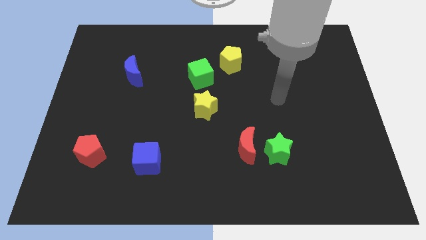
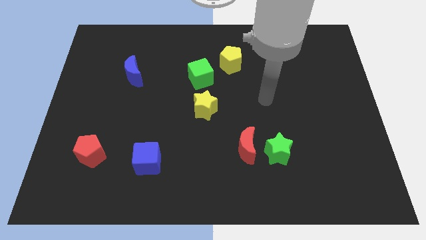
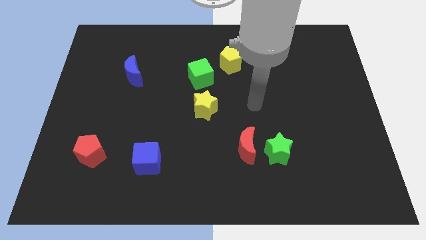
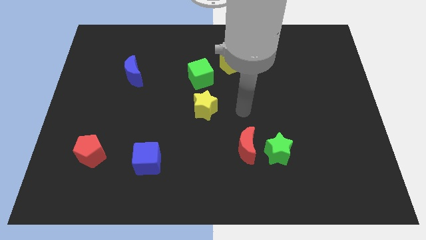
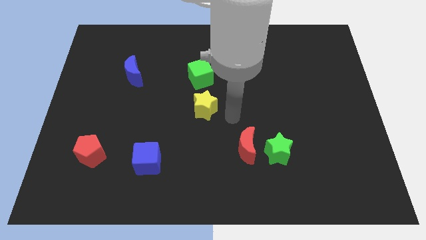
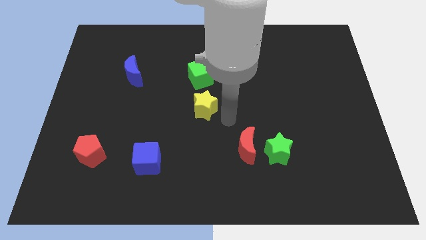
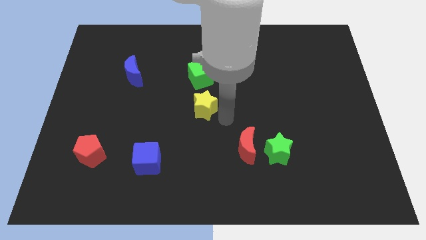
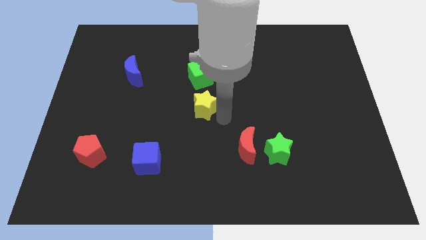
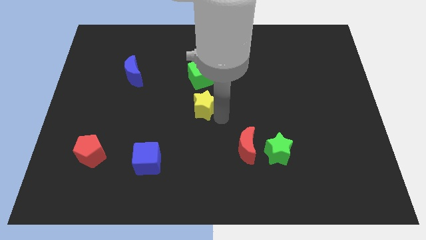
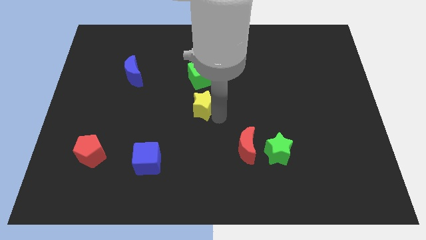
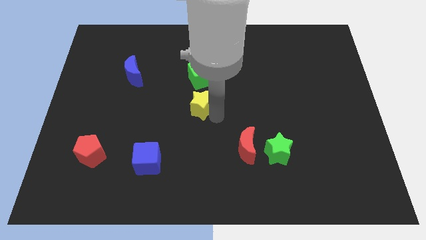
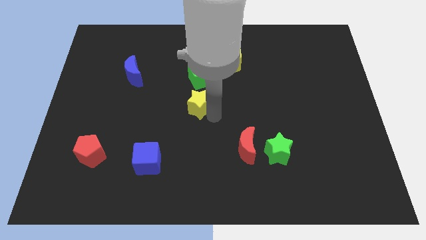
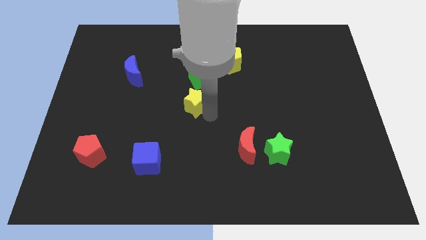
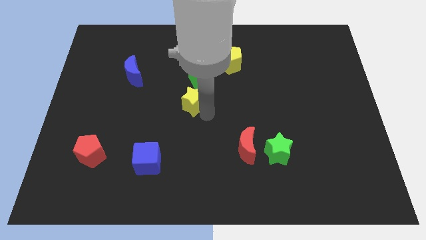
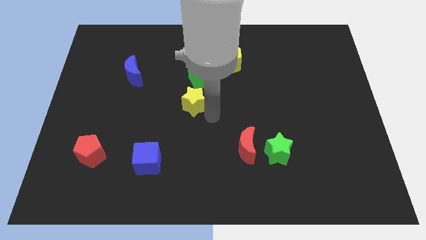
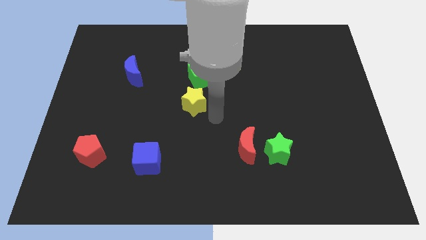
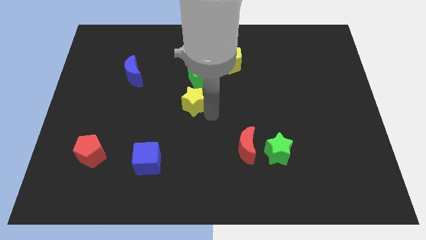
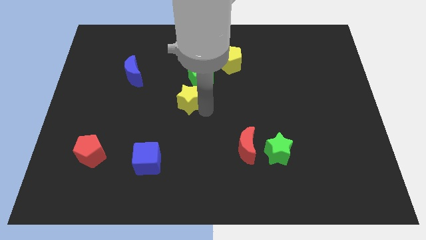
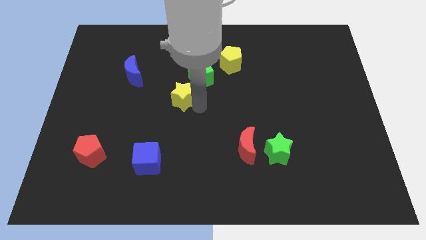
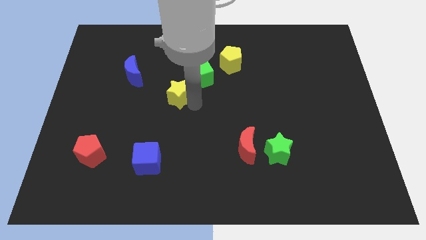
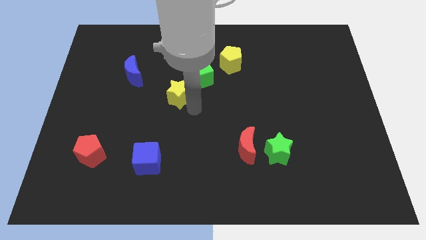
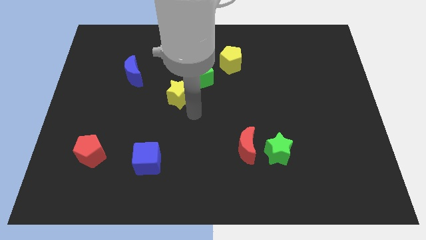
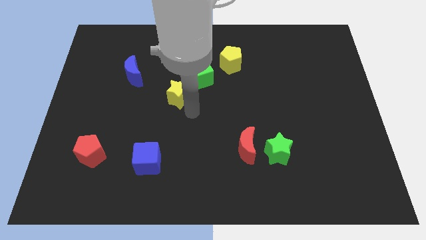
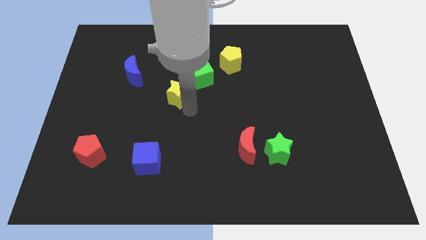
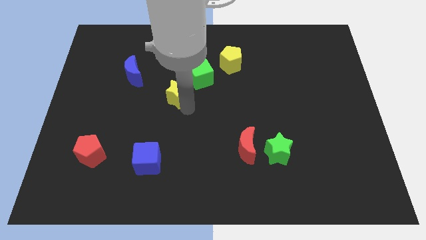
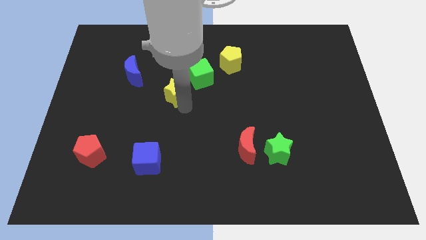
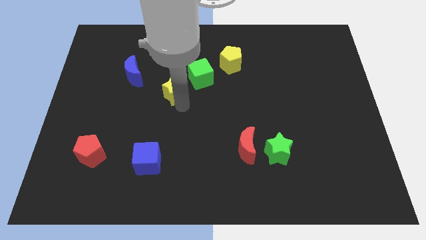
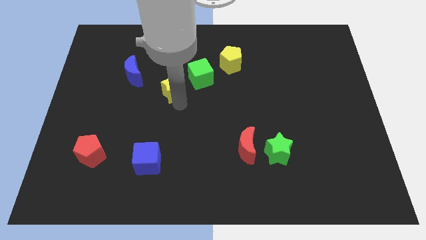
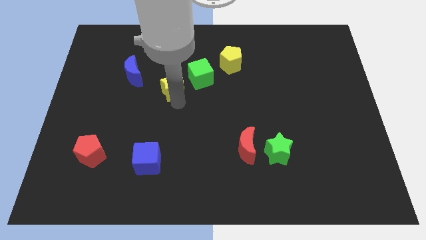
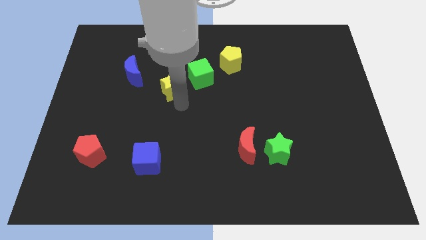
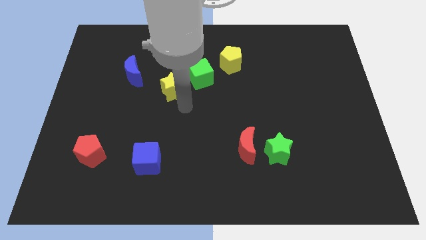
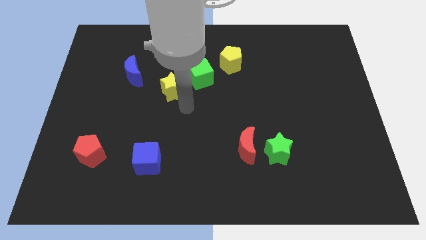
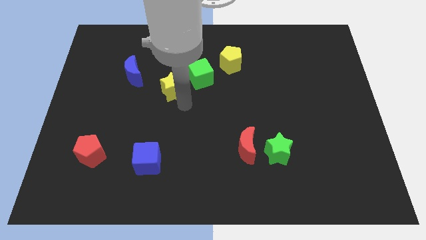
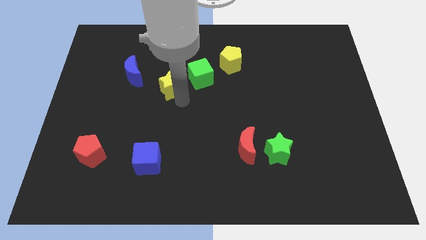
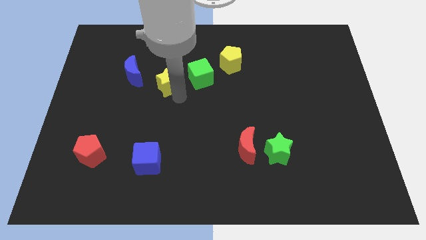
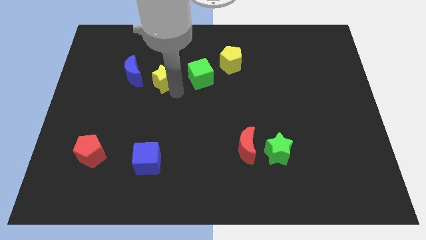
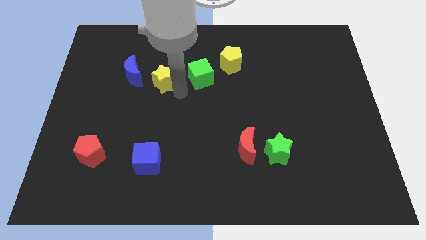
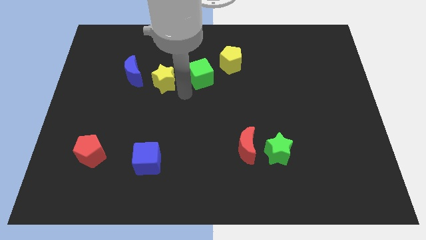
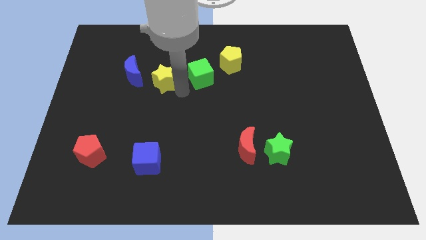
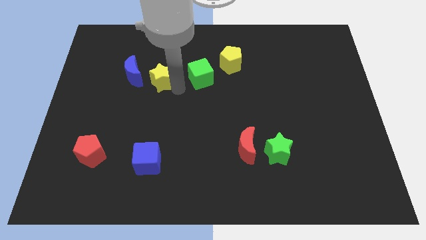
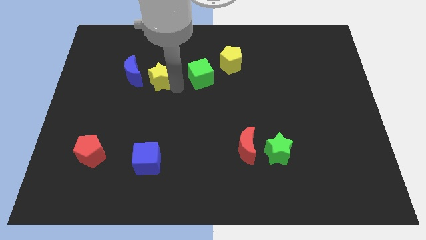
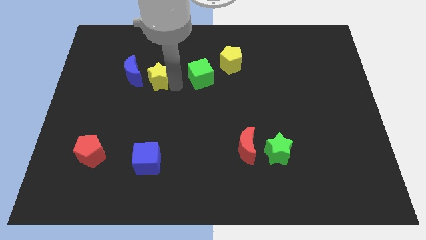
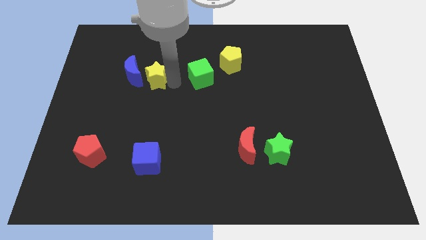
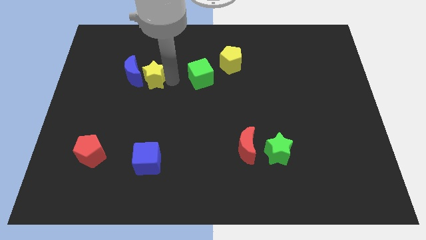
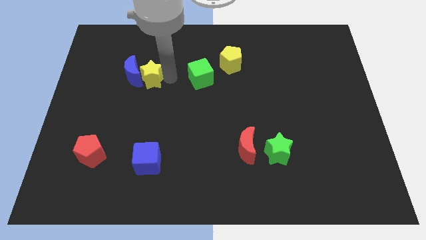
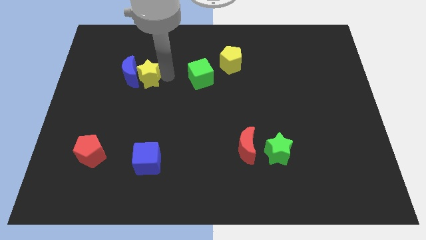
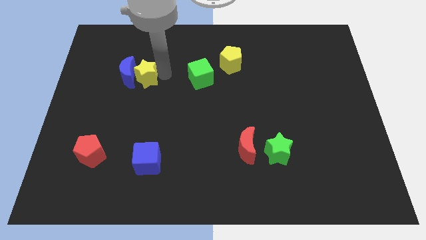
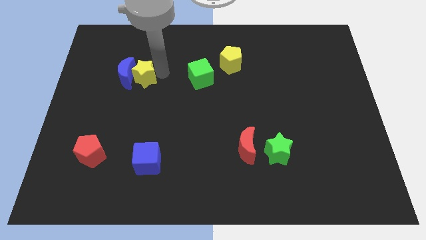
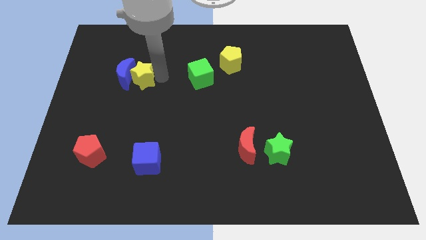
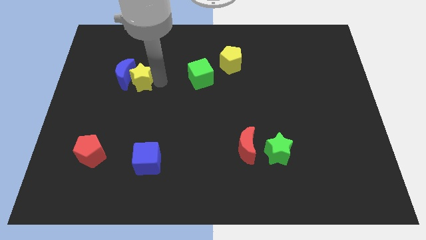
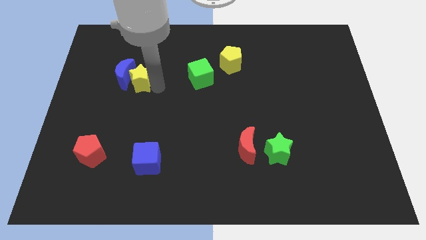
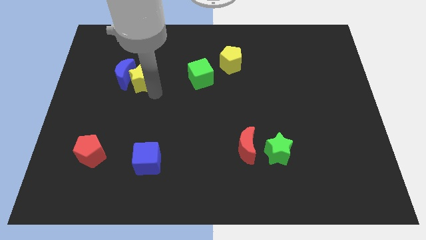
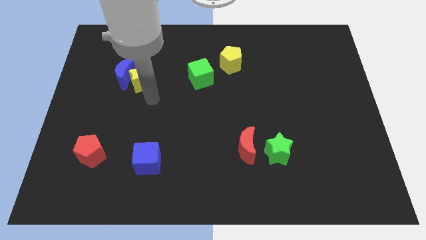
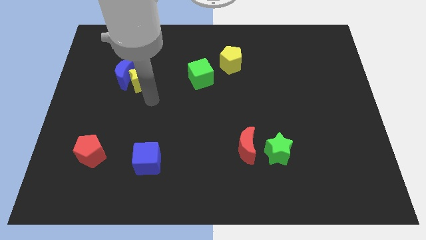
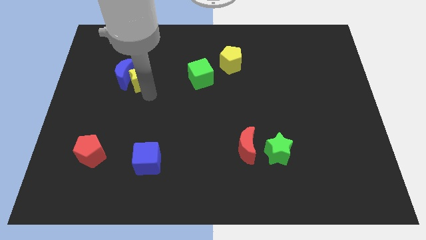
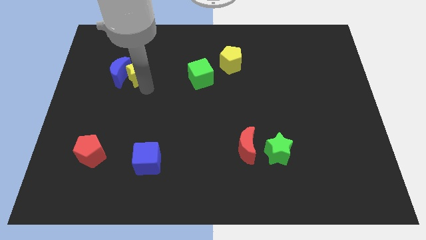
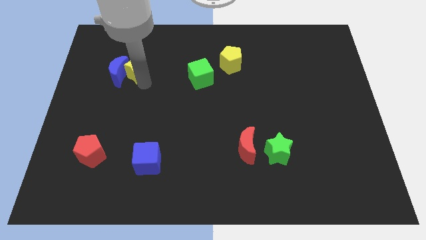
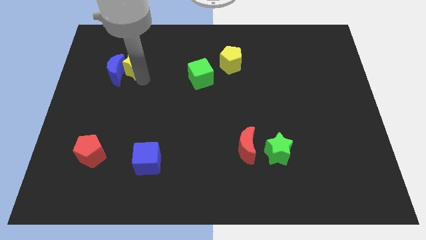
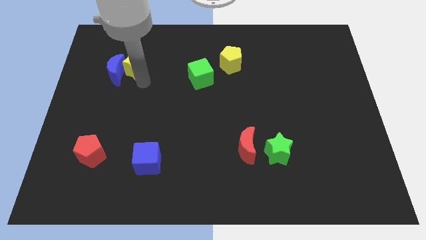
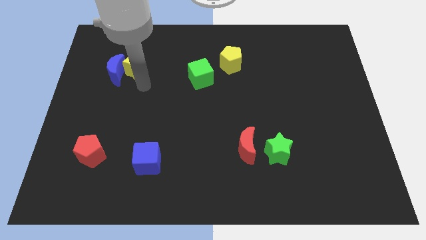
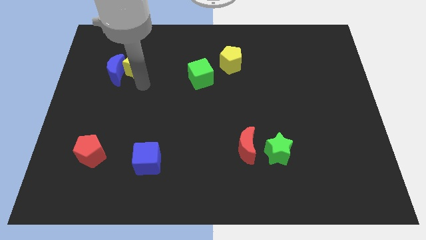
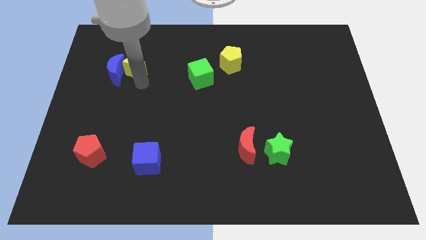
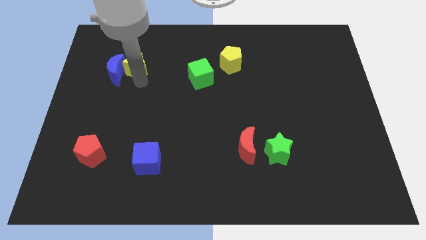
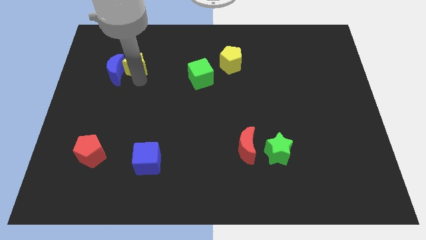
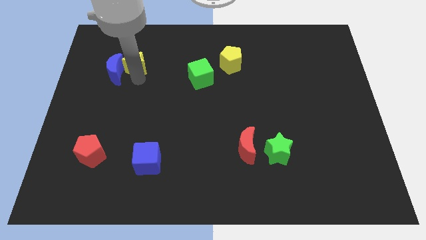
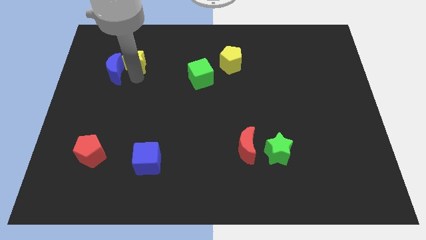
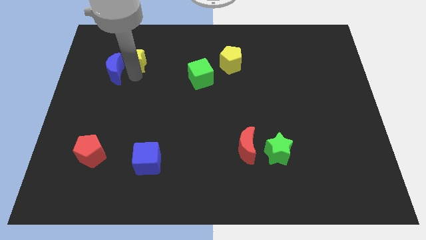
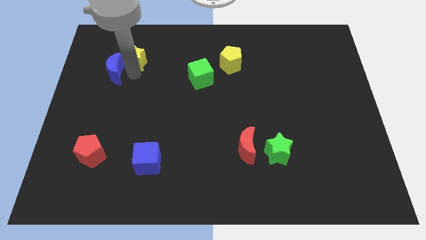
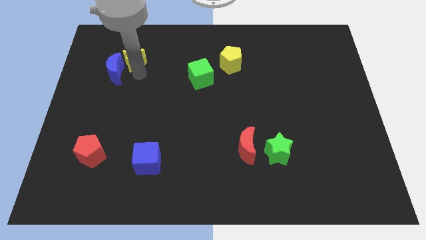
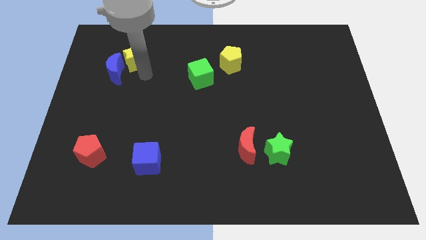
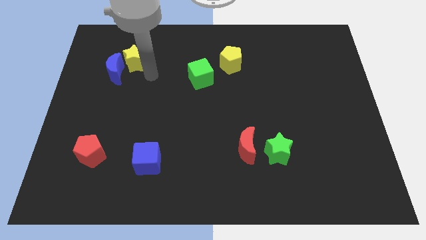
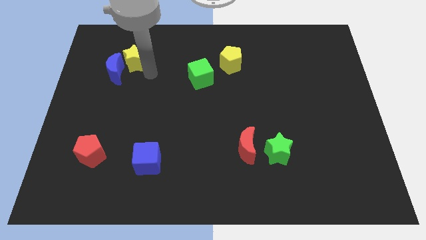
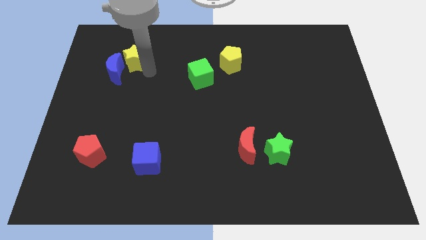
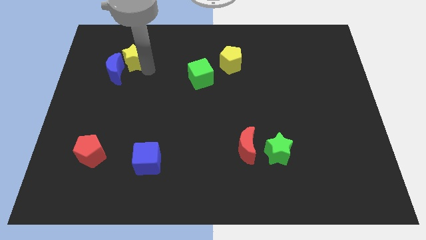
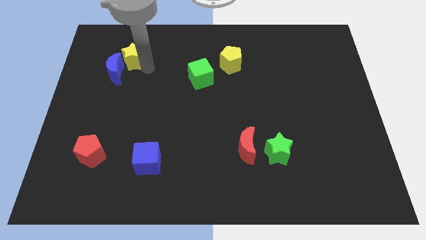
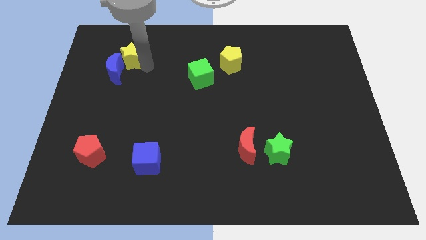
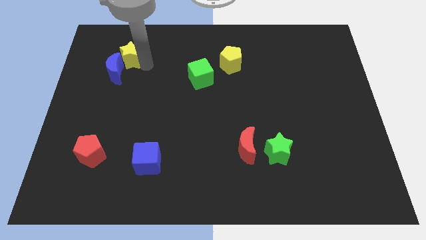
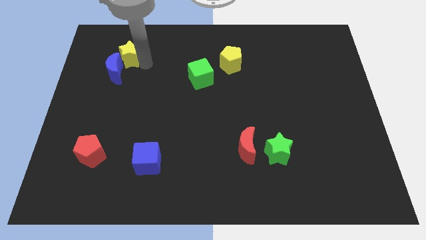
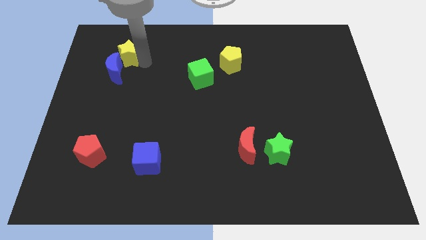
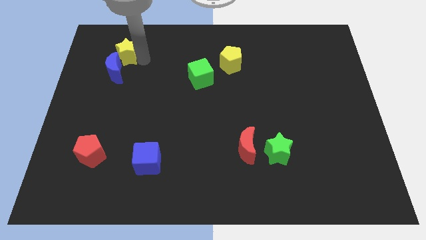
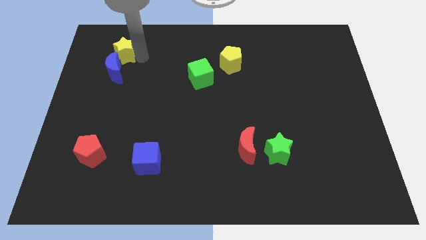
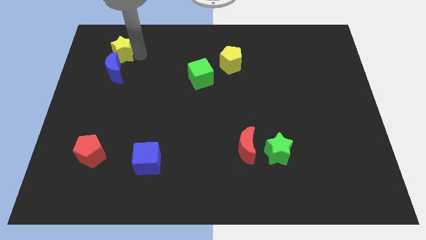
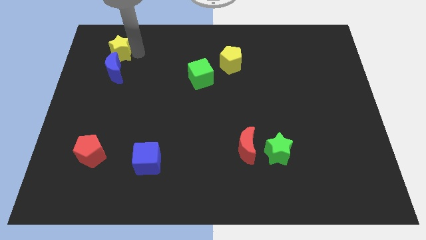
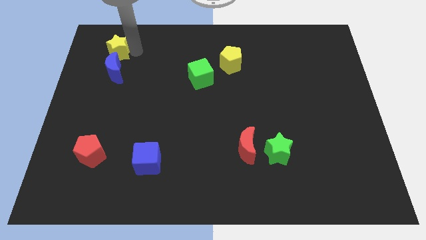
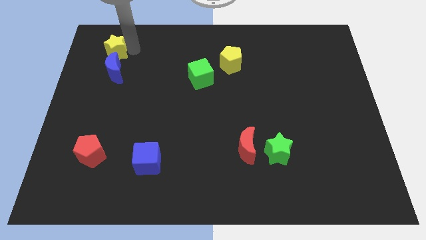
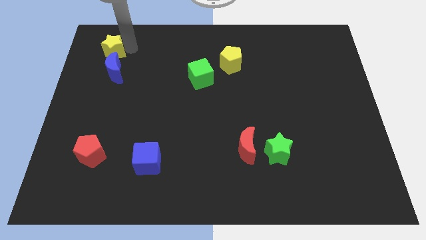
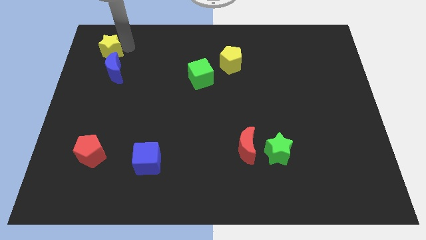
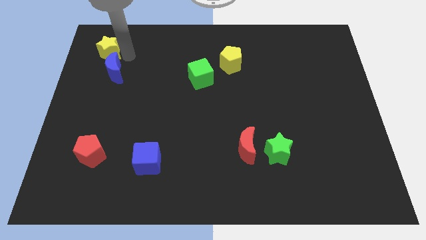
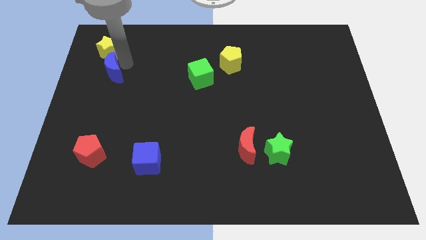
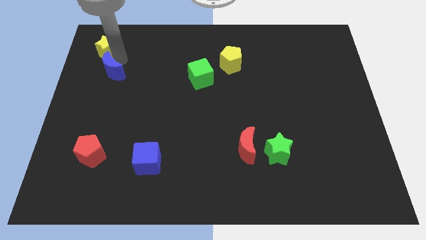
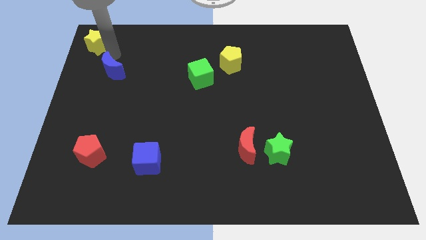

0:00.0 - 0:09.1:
put the yellow star to the top left
